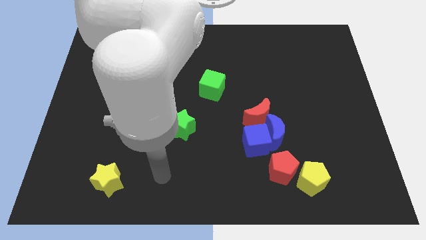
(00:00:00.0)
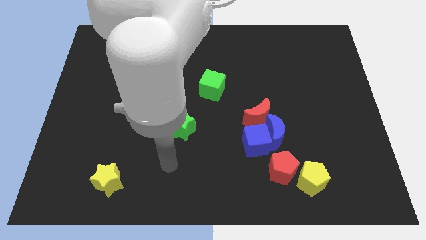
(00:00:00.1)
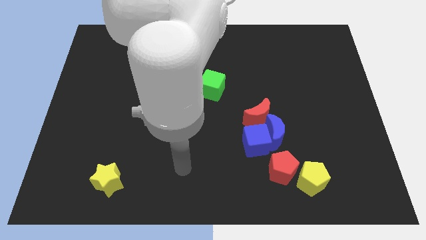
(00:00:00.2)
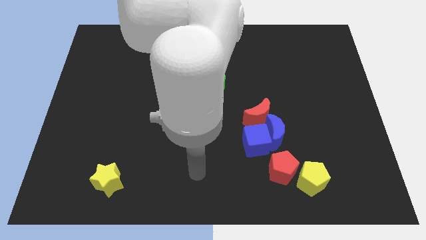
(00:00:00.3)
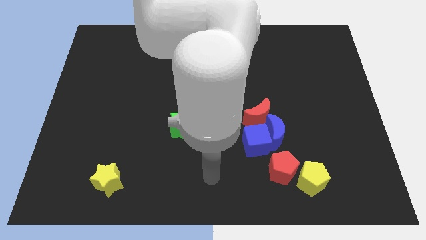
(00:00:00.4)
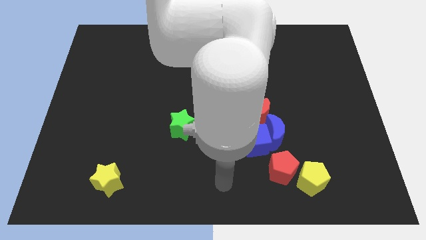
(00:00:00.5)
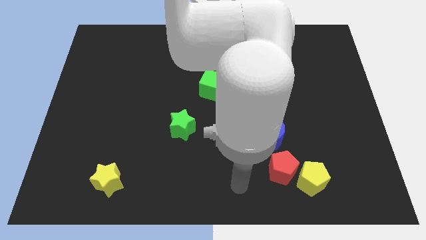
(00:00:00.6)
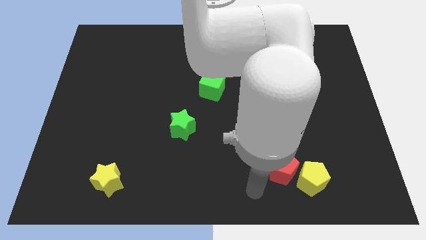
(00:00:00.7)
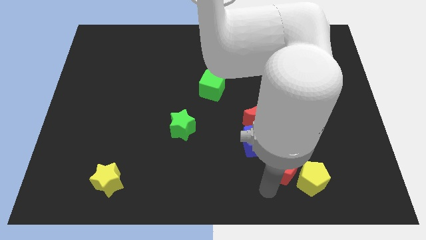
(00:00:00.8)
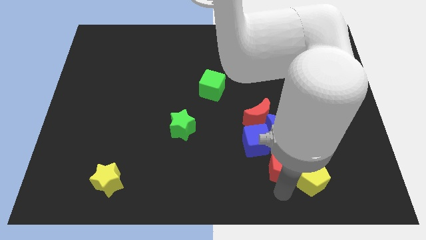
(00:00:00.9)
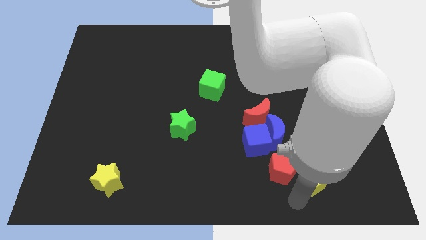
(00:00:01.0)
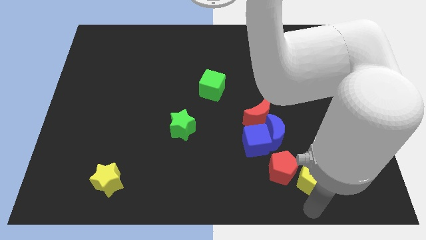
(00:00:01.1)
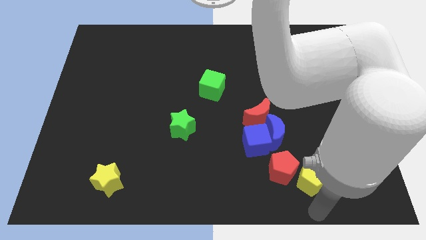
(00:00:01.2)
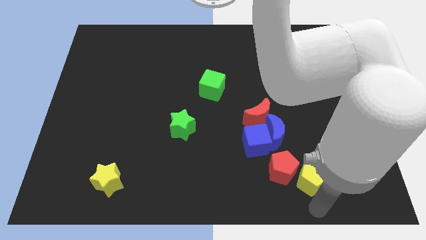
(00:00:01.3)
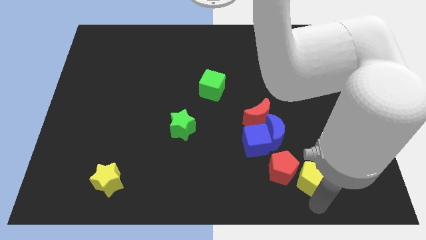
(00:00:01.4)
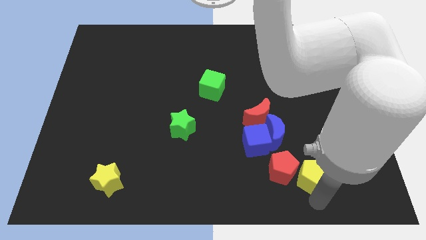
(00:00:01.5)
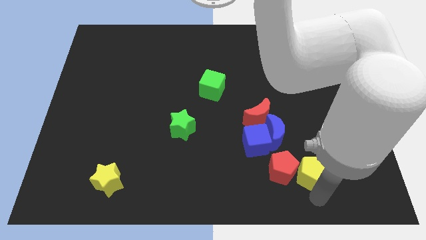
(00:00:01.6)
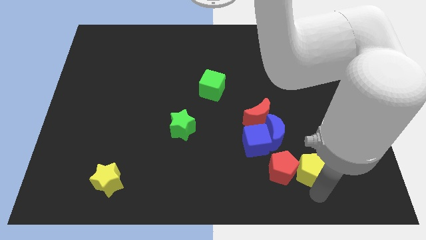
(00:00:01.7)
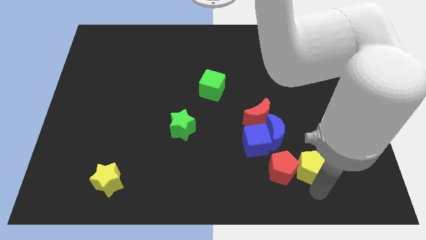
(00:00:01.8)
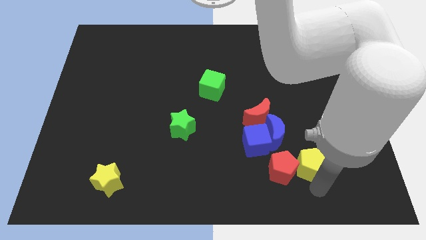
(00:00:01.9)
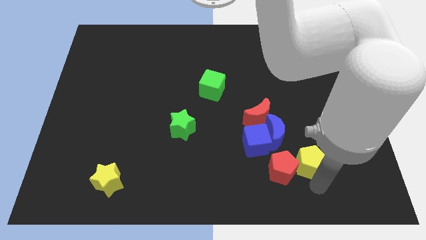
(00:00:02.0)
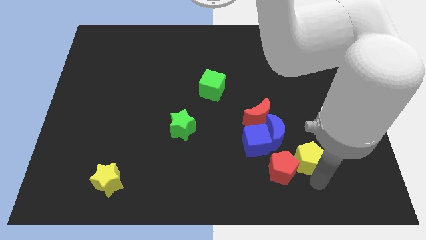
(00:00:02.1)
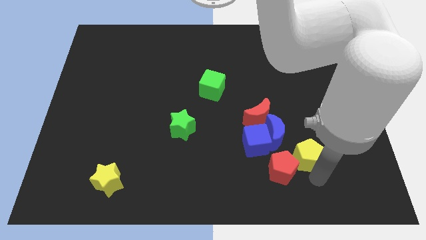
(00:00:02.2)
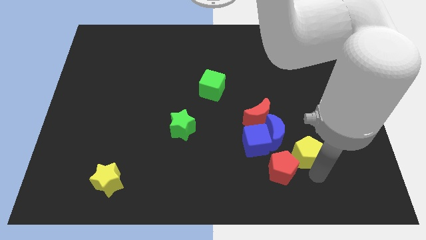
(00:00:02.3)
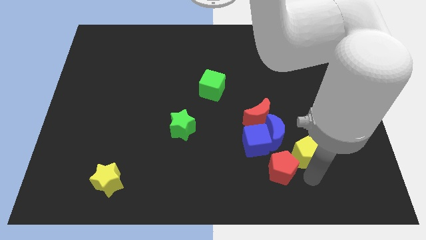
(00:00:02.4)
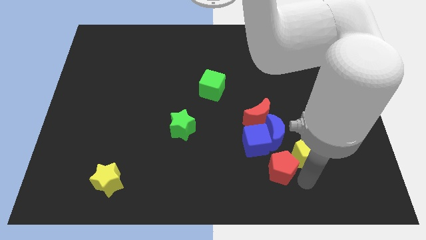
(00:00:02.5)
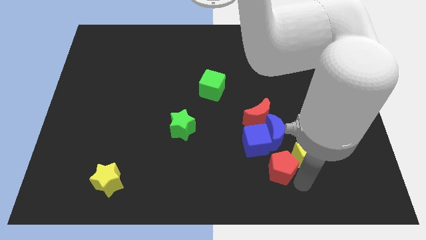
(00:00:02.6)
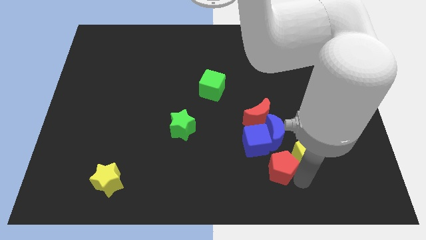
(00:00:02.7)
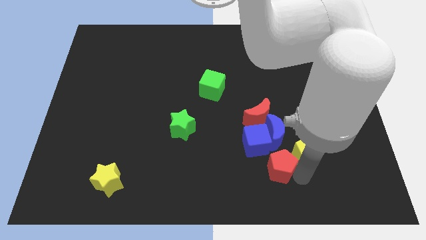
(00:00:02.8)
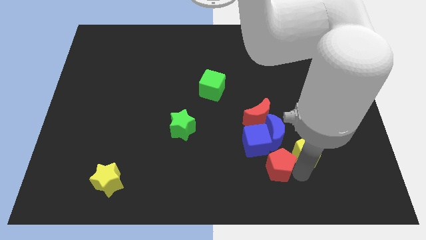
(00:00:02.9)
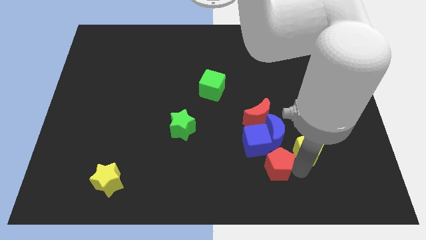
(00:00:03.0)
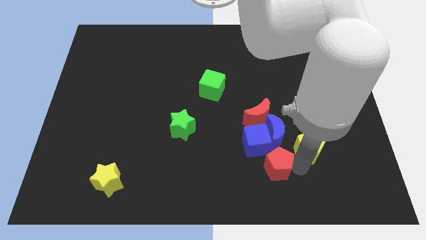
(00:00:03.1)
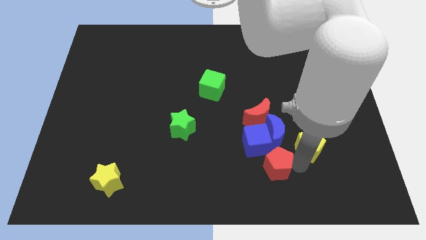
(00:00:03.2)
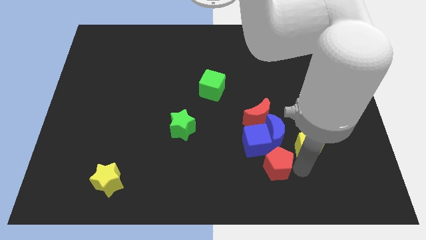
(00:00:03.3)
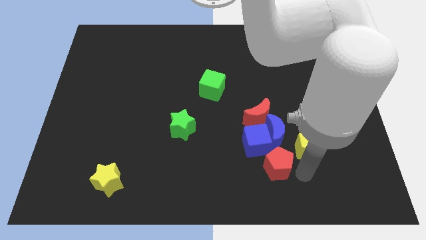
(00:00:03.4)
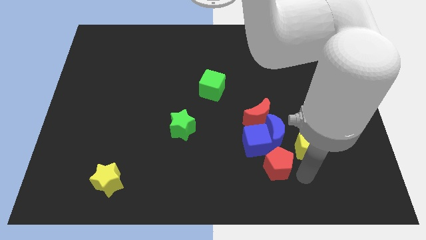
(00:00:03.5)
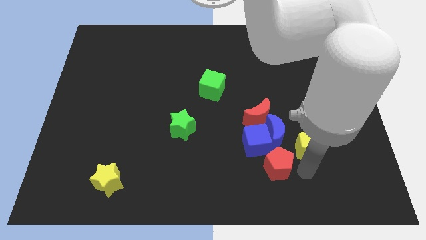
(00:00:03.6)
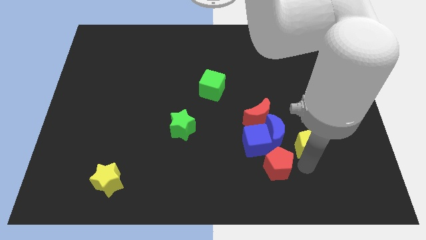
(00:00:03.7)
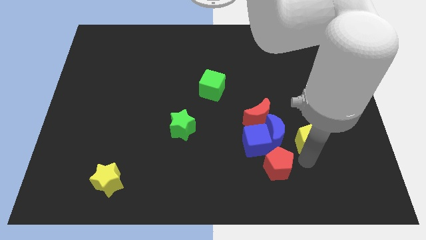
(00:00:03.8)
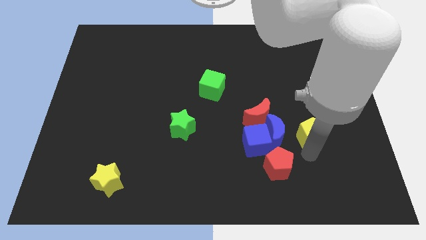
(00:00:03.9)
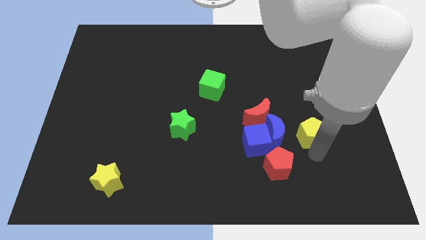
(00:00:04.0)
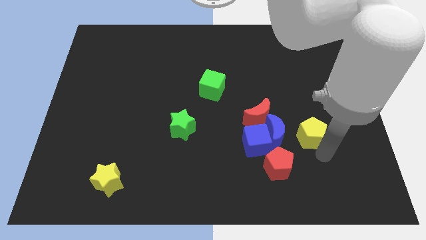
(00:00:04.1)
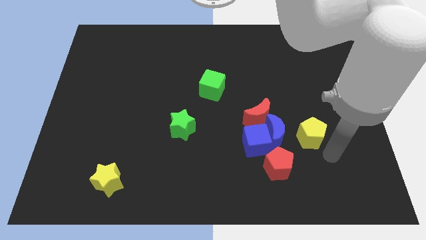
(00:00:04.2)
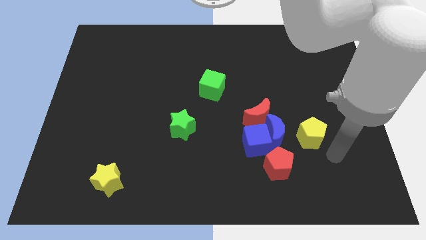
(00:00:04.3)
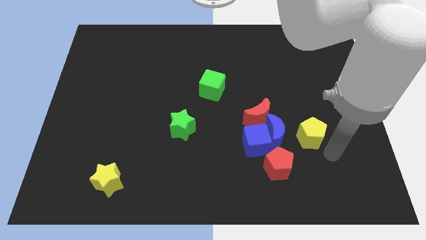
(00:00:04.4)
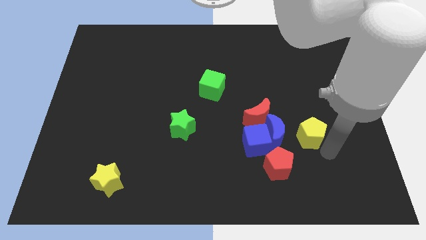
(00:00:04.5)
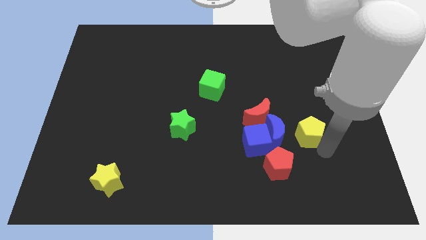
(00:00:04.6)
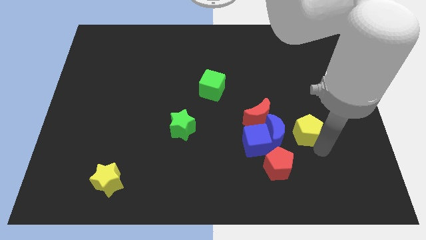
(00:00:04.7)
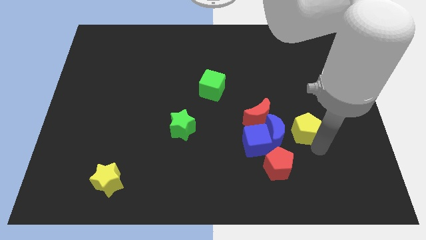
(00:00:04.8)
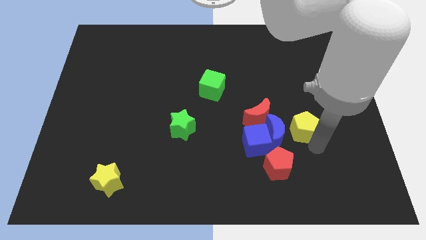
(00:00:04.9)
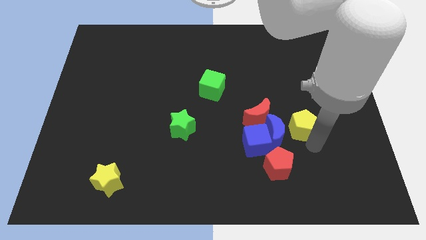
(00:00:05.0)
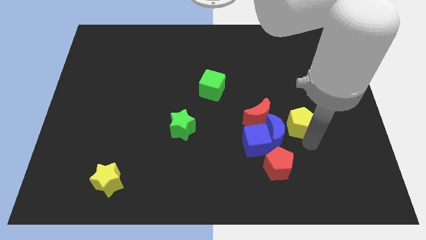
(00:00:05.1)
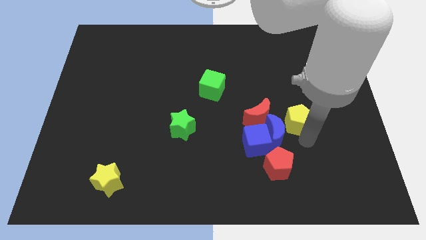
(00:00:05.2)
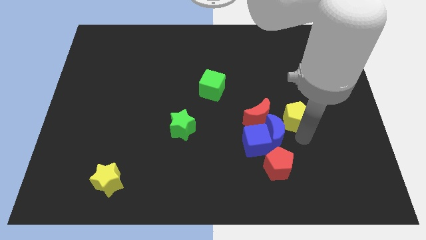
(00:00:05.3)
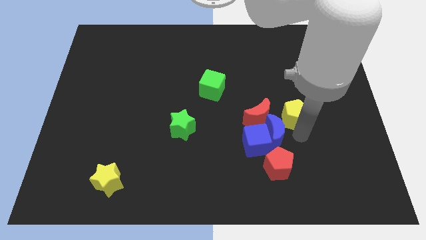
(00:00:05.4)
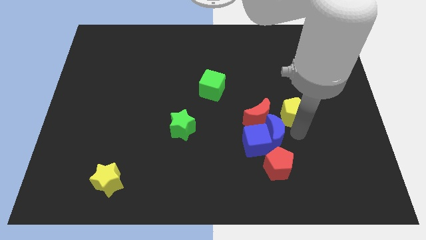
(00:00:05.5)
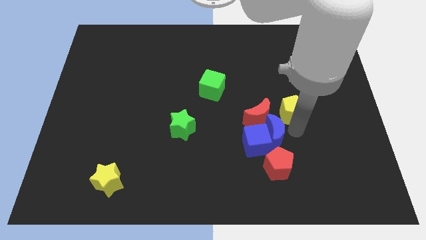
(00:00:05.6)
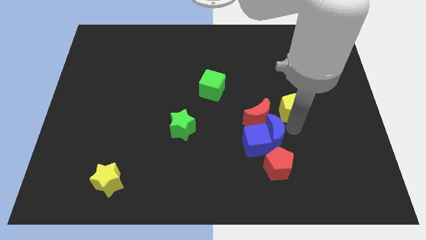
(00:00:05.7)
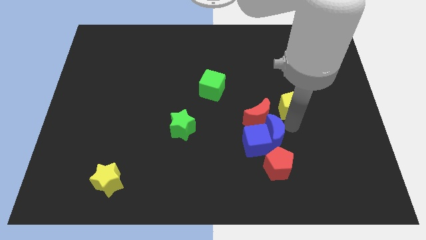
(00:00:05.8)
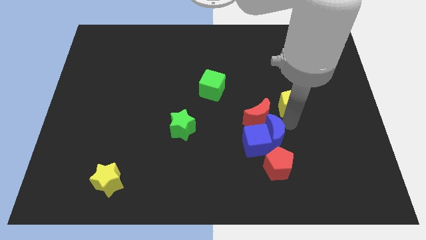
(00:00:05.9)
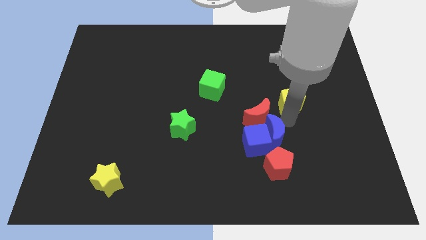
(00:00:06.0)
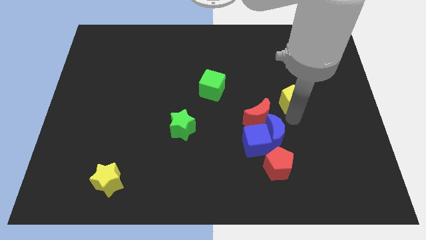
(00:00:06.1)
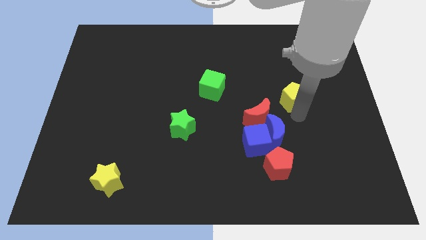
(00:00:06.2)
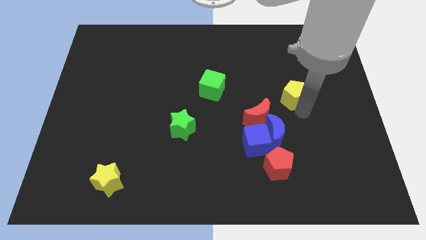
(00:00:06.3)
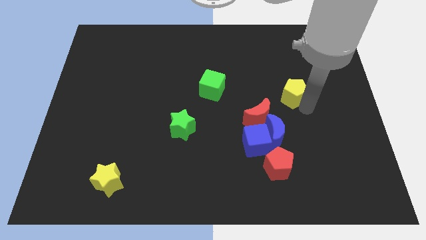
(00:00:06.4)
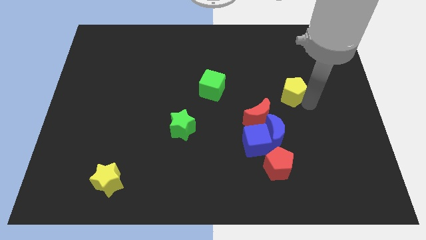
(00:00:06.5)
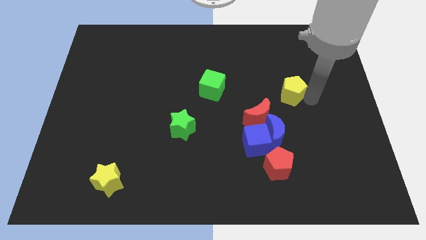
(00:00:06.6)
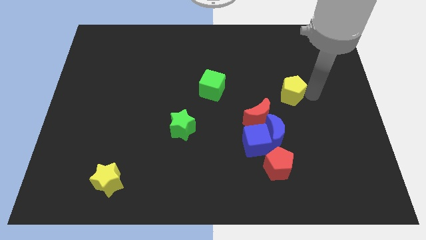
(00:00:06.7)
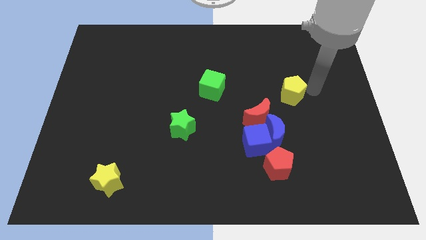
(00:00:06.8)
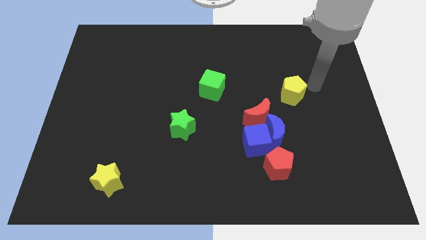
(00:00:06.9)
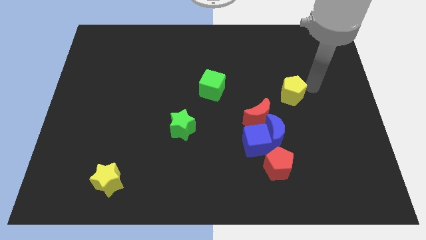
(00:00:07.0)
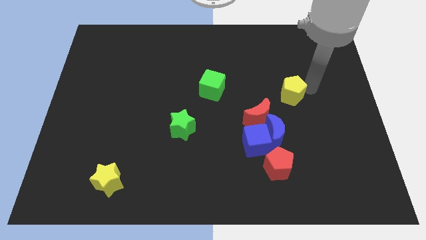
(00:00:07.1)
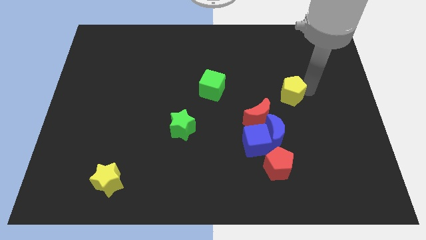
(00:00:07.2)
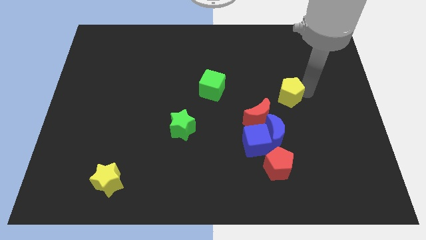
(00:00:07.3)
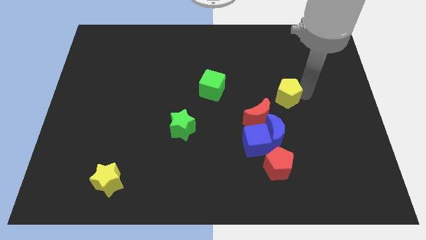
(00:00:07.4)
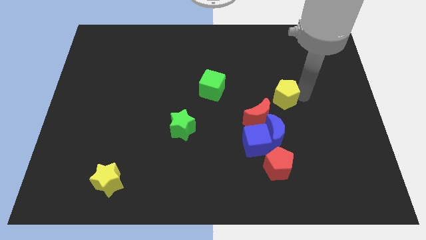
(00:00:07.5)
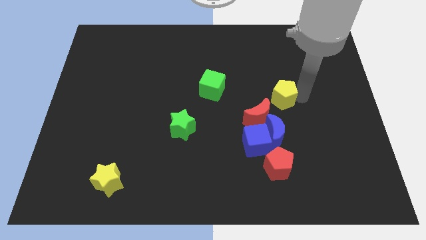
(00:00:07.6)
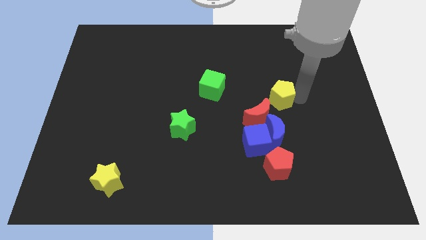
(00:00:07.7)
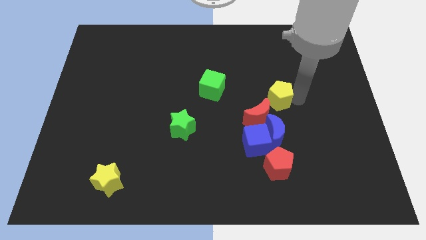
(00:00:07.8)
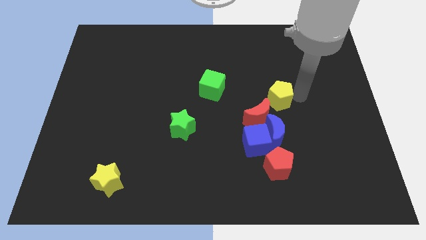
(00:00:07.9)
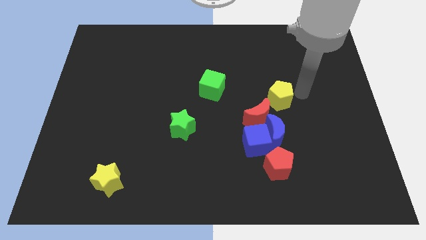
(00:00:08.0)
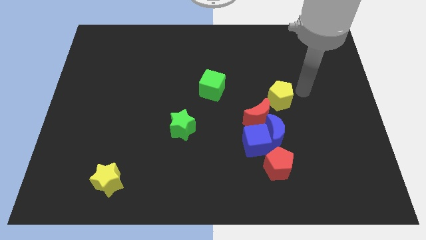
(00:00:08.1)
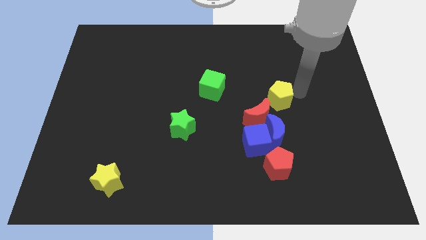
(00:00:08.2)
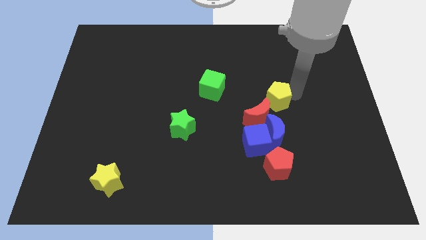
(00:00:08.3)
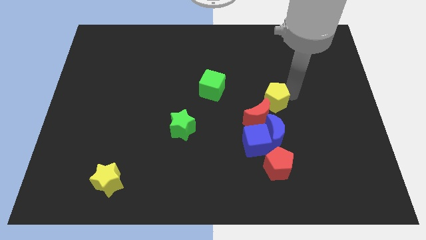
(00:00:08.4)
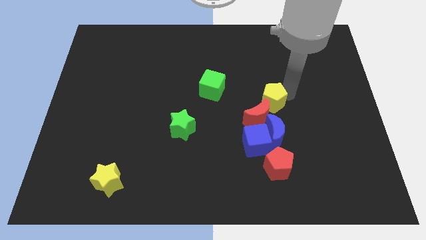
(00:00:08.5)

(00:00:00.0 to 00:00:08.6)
put the yellow pentagon just right of the green cube
